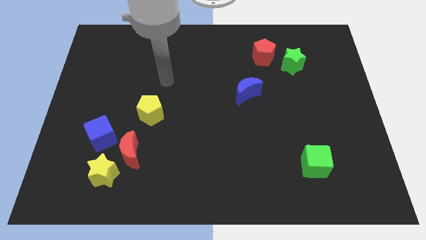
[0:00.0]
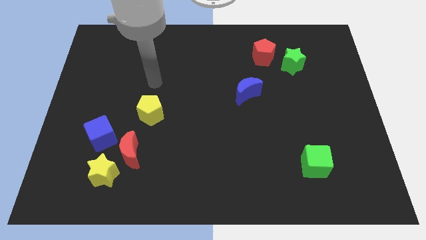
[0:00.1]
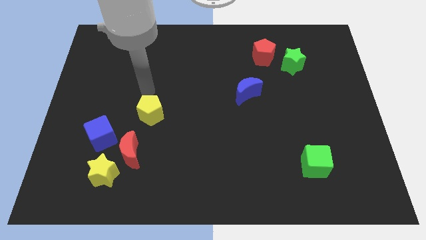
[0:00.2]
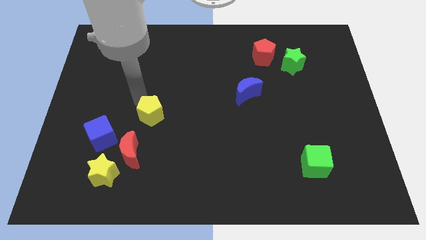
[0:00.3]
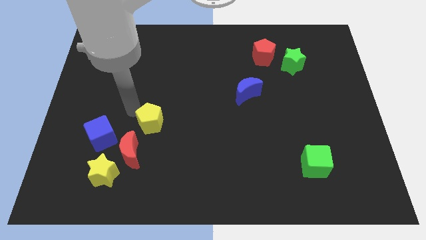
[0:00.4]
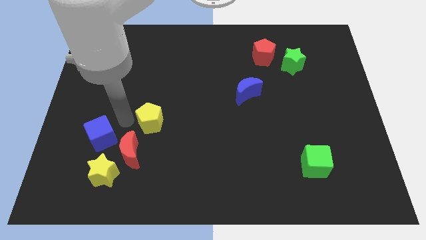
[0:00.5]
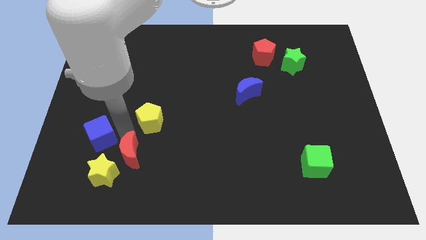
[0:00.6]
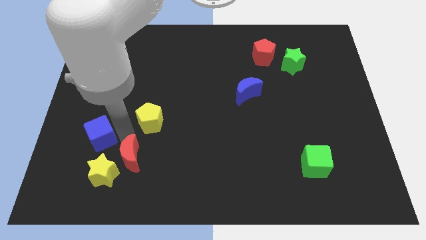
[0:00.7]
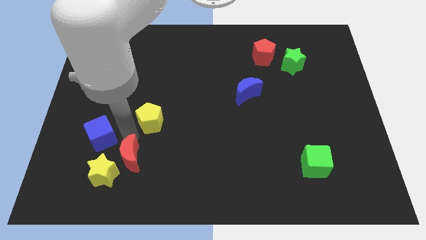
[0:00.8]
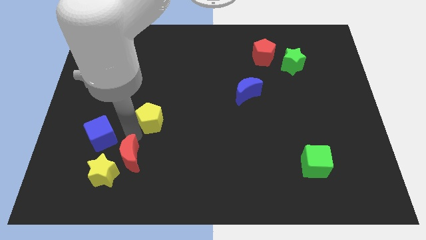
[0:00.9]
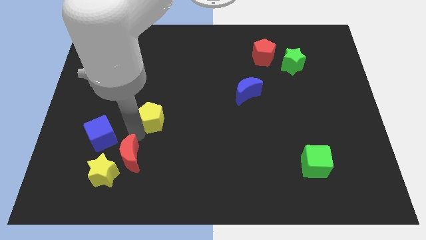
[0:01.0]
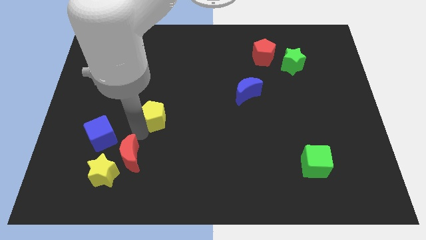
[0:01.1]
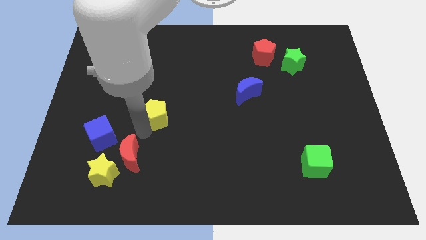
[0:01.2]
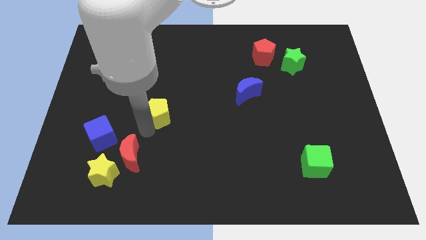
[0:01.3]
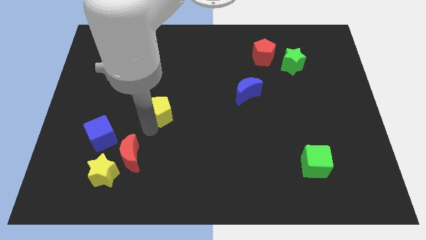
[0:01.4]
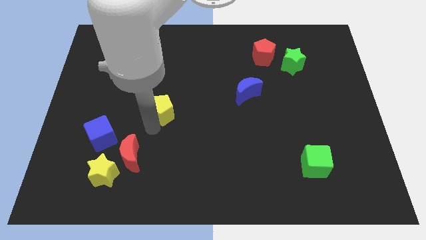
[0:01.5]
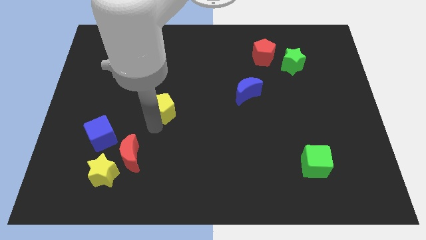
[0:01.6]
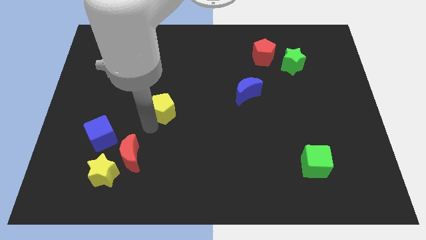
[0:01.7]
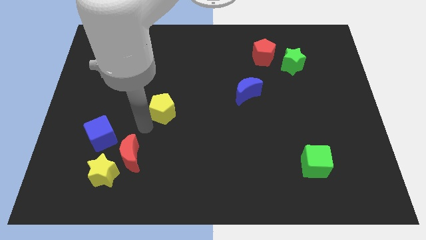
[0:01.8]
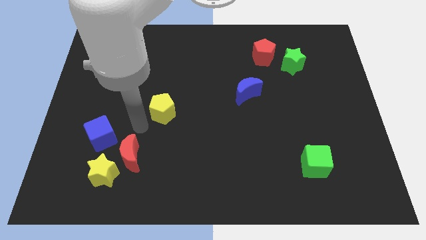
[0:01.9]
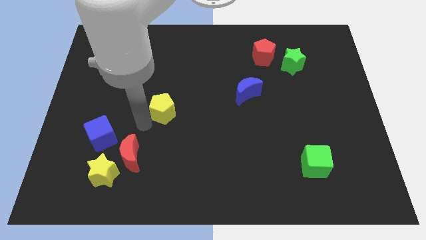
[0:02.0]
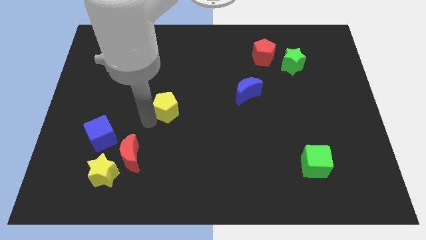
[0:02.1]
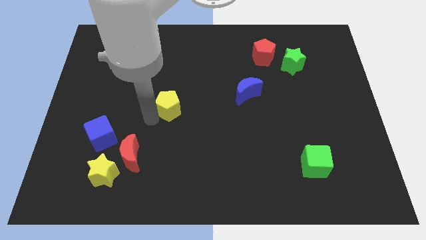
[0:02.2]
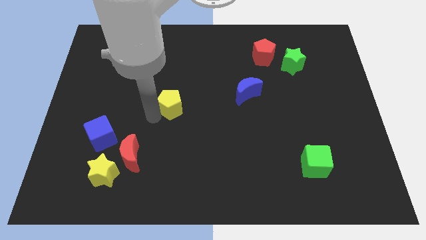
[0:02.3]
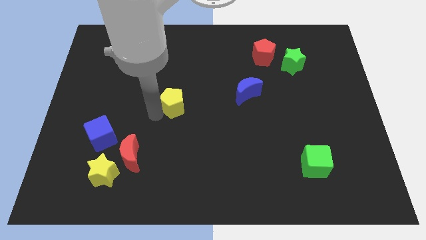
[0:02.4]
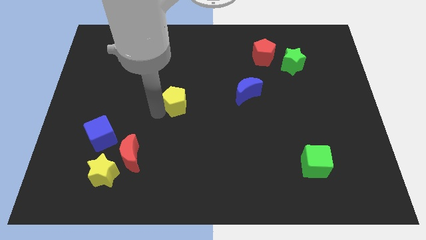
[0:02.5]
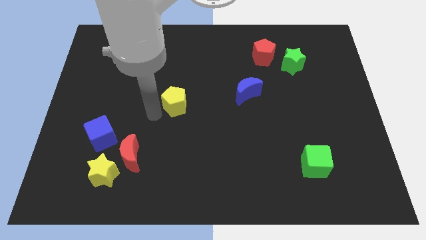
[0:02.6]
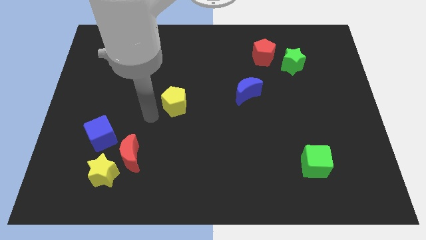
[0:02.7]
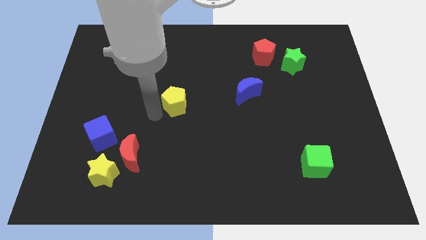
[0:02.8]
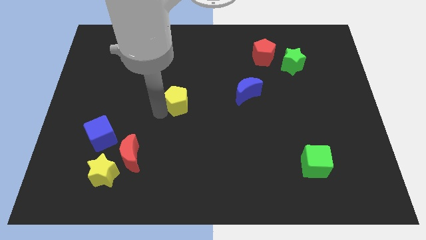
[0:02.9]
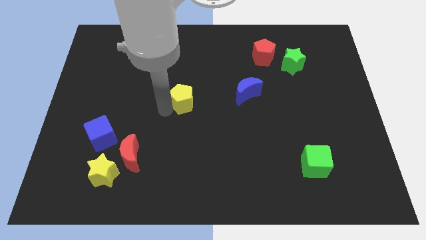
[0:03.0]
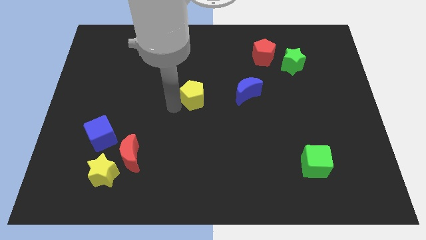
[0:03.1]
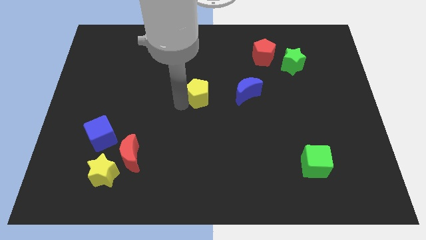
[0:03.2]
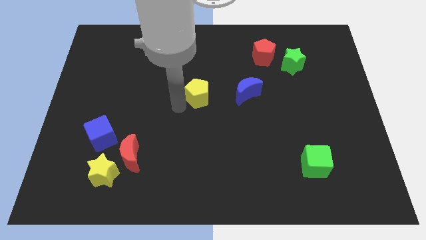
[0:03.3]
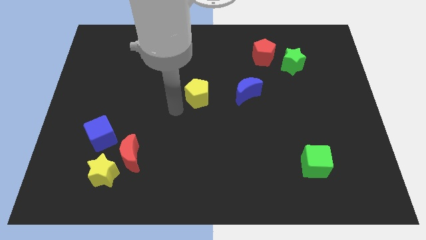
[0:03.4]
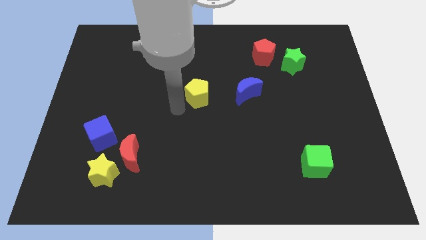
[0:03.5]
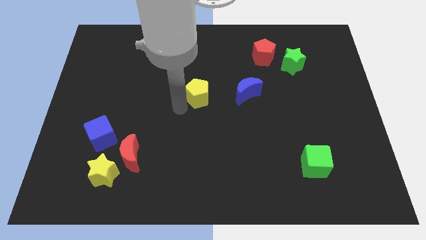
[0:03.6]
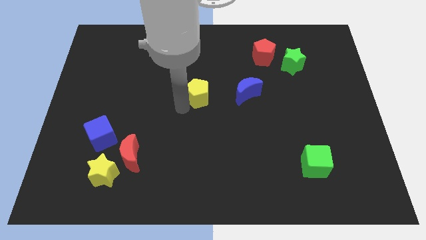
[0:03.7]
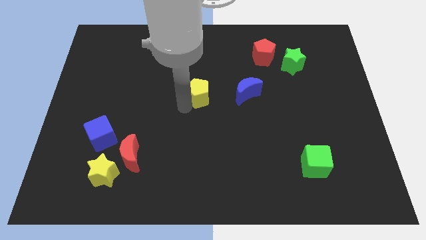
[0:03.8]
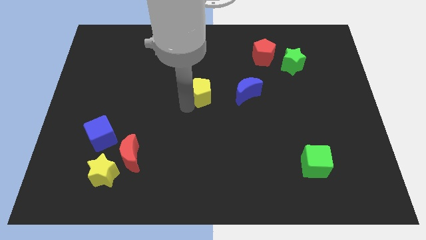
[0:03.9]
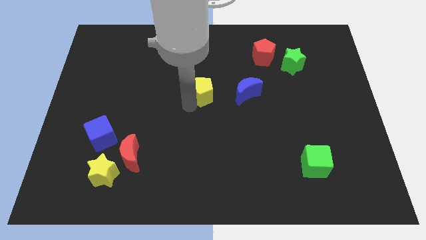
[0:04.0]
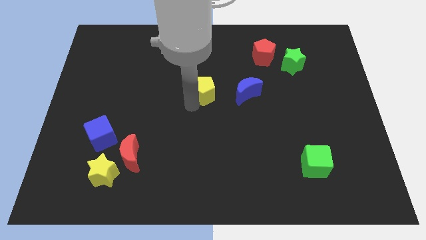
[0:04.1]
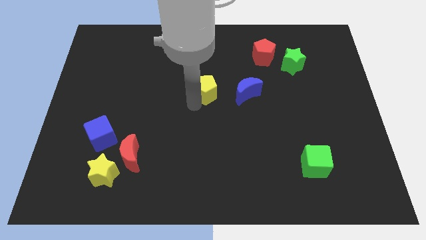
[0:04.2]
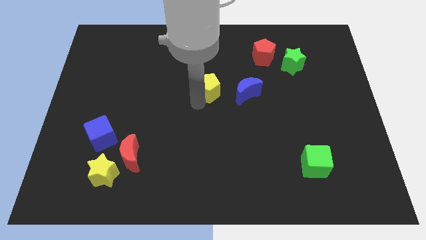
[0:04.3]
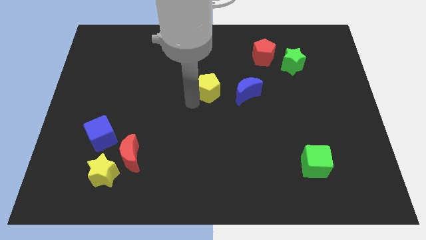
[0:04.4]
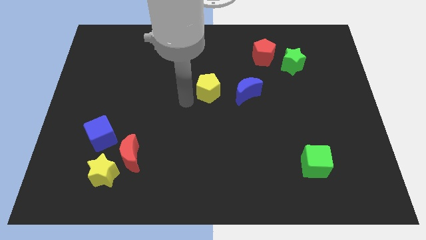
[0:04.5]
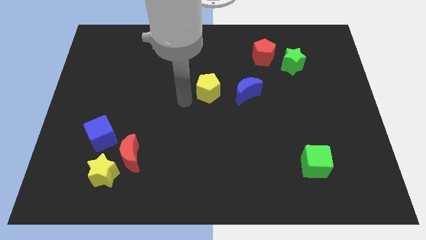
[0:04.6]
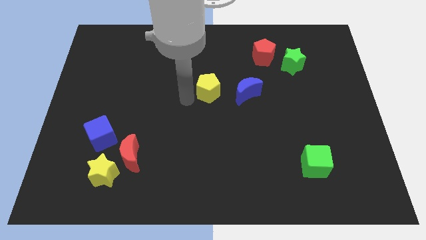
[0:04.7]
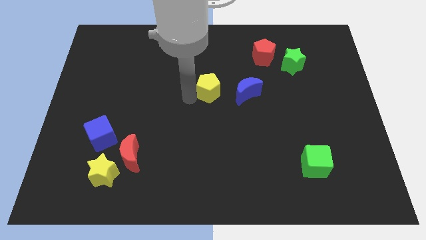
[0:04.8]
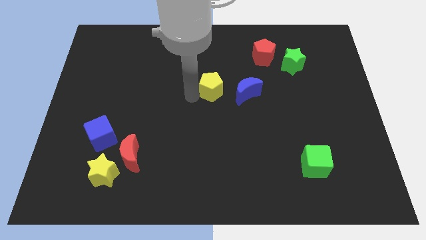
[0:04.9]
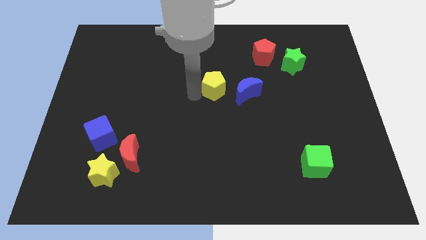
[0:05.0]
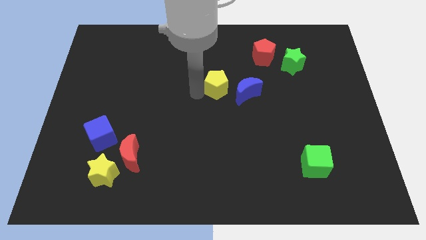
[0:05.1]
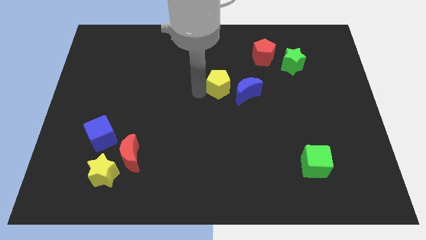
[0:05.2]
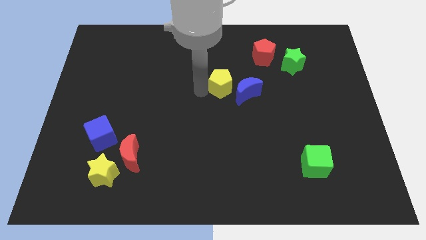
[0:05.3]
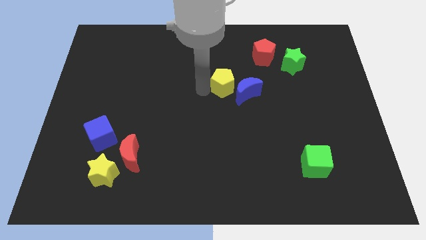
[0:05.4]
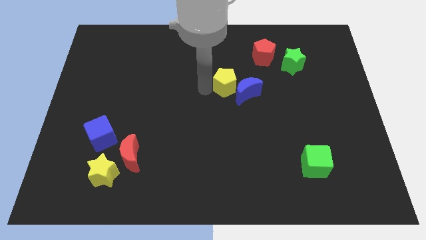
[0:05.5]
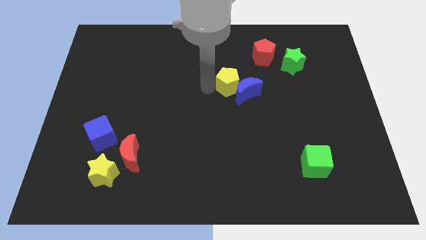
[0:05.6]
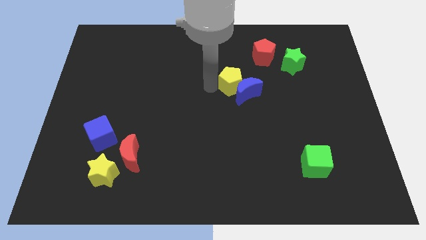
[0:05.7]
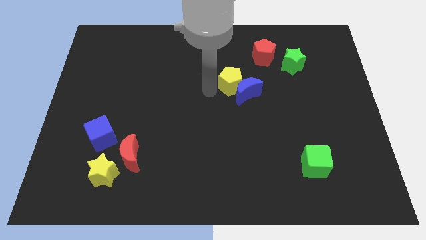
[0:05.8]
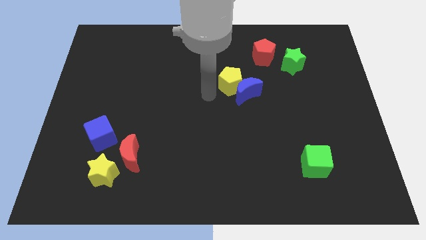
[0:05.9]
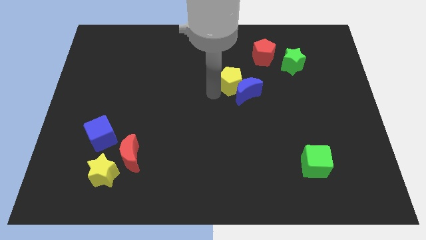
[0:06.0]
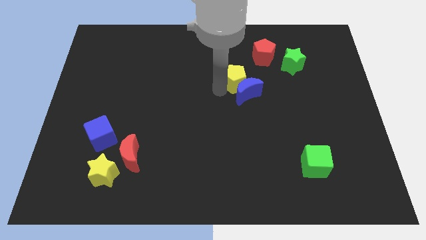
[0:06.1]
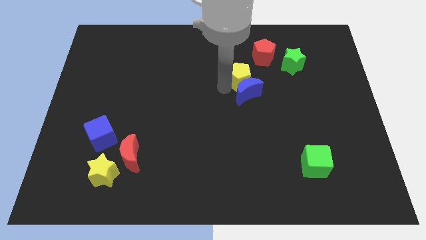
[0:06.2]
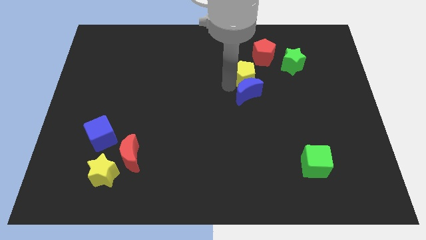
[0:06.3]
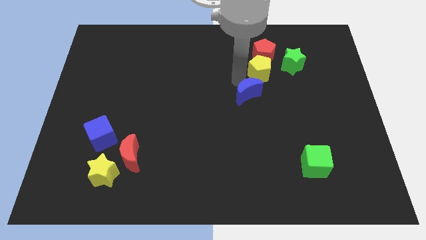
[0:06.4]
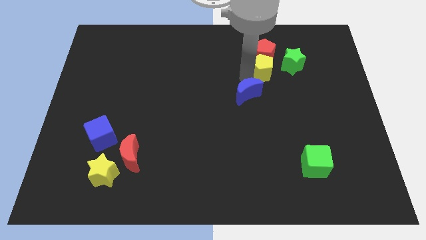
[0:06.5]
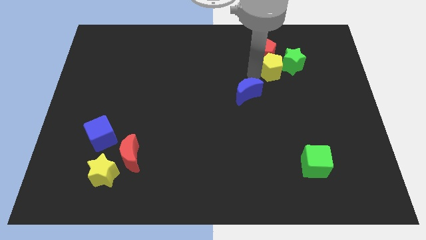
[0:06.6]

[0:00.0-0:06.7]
push the yellow pentagon to the green star

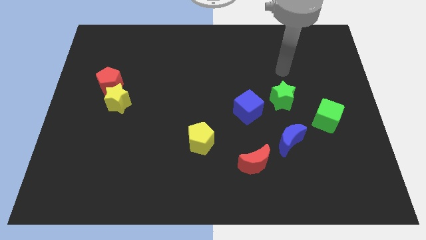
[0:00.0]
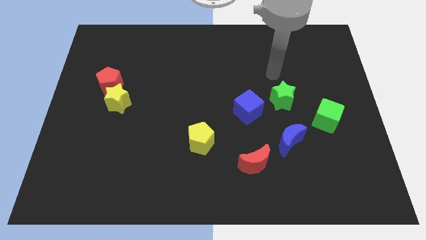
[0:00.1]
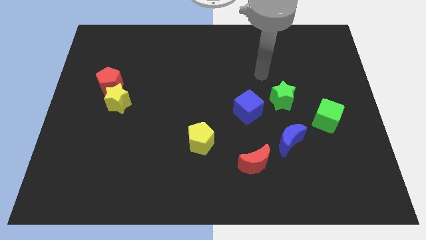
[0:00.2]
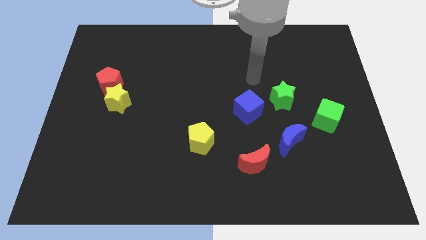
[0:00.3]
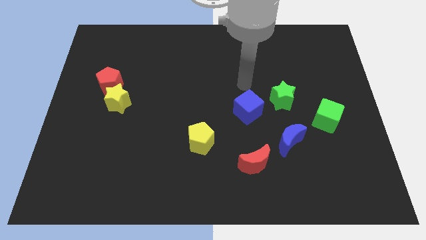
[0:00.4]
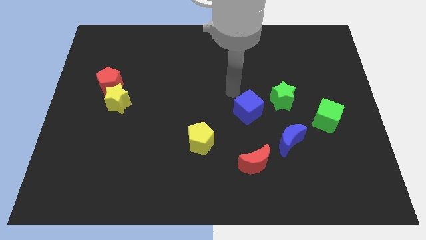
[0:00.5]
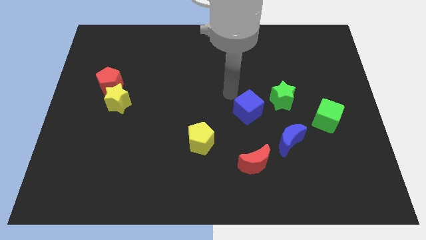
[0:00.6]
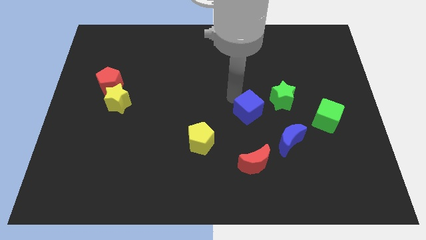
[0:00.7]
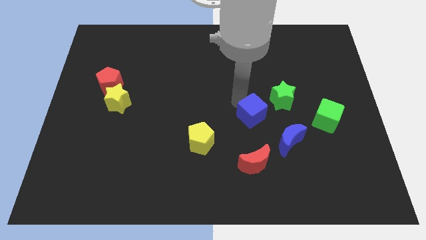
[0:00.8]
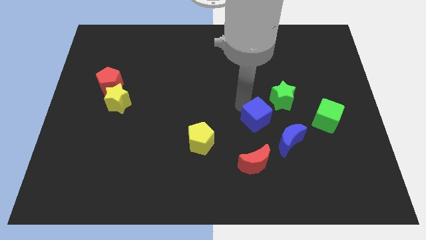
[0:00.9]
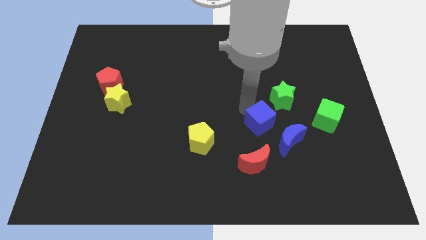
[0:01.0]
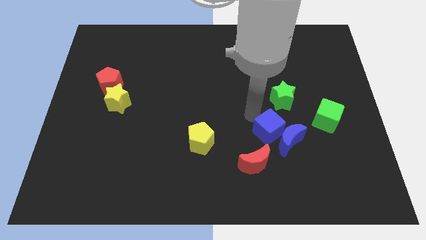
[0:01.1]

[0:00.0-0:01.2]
move the blue cube towards the blue moon
